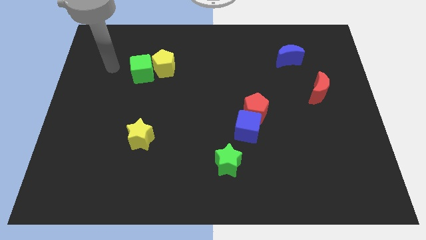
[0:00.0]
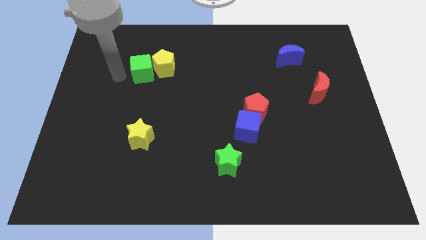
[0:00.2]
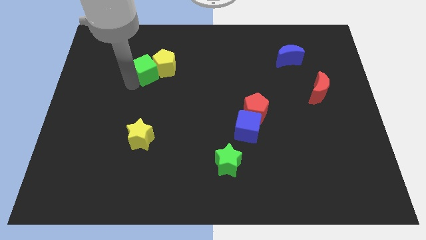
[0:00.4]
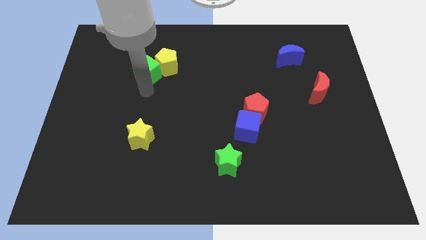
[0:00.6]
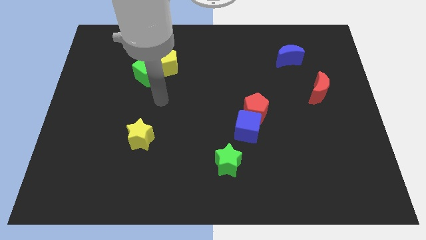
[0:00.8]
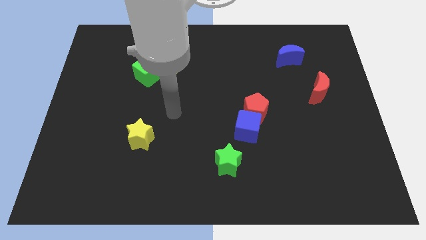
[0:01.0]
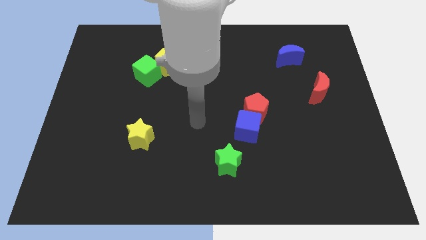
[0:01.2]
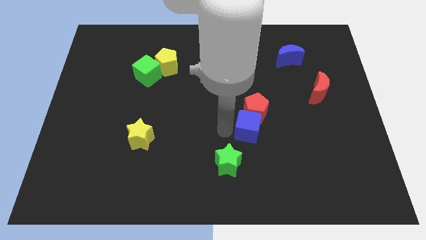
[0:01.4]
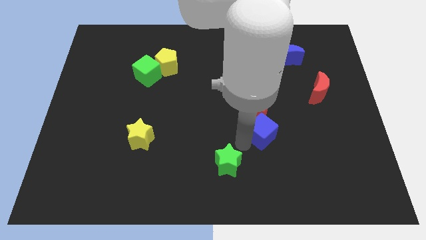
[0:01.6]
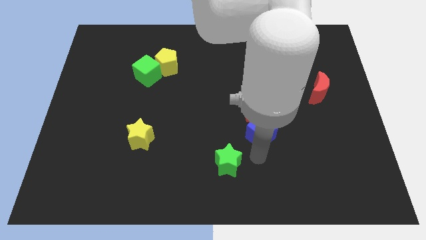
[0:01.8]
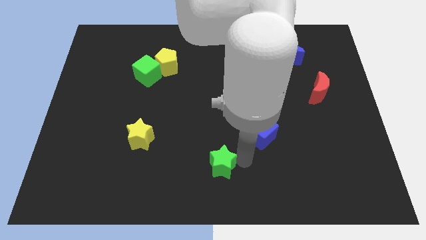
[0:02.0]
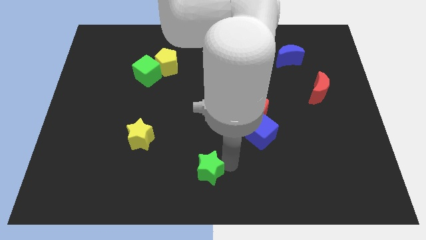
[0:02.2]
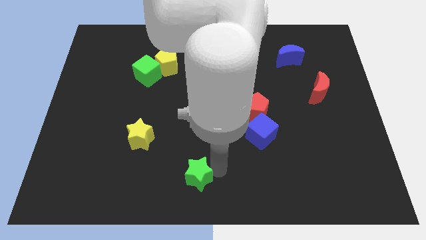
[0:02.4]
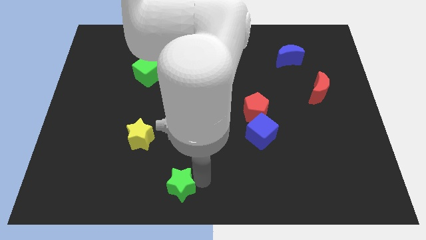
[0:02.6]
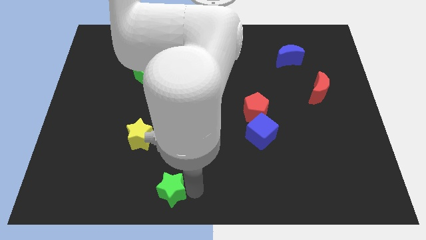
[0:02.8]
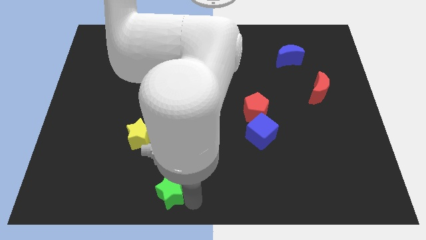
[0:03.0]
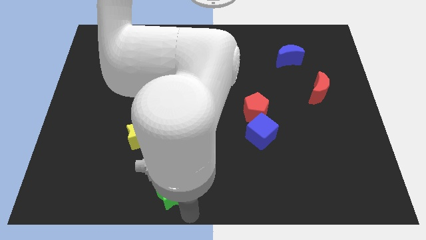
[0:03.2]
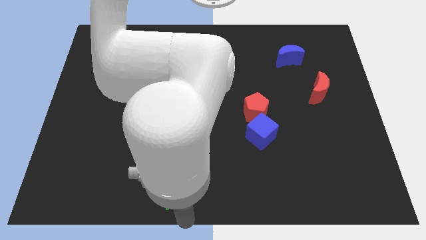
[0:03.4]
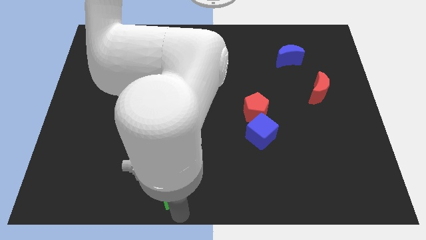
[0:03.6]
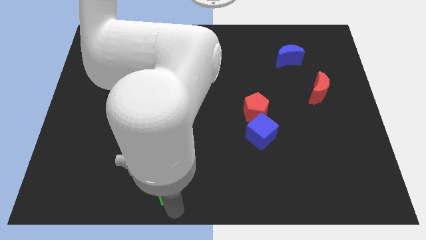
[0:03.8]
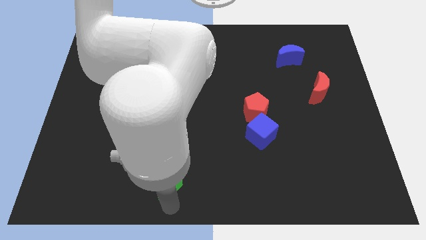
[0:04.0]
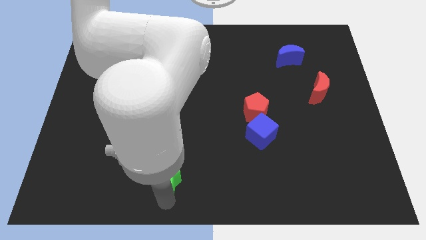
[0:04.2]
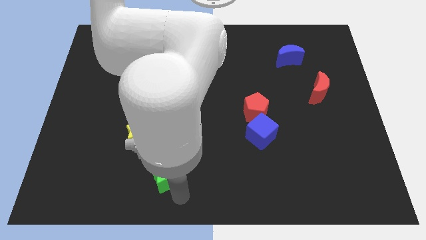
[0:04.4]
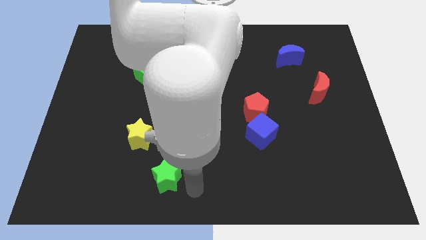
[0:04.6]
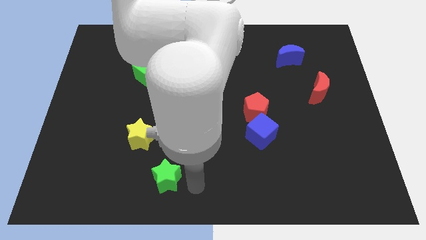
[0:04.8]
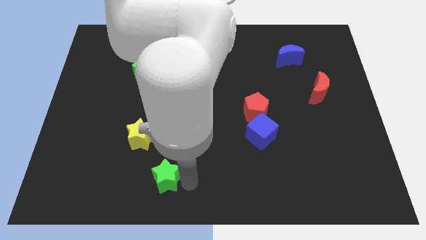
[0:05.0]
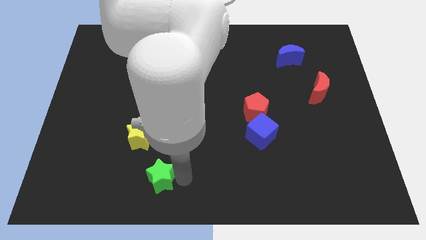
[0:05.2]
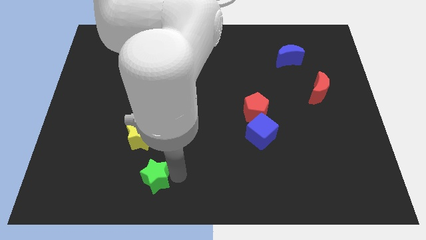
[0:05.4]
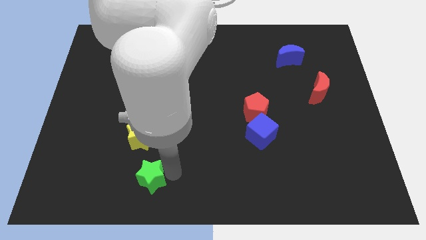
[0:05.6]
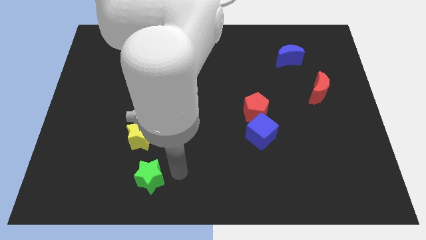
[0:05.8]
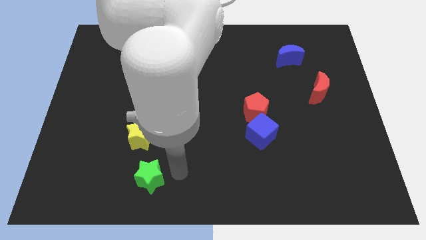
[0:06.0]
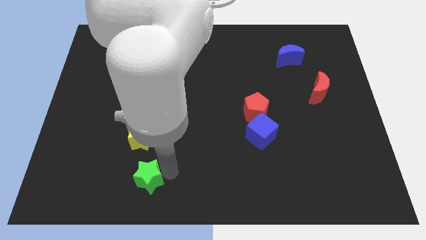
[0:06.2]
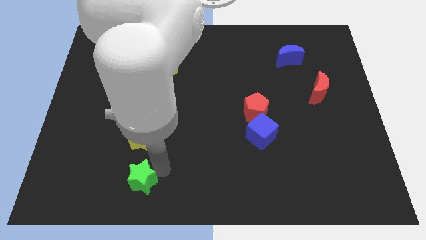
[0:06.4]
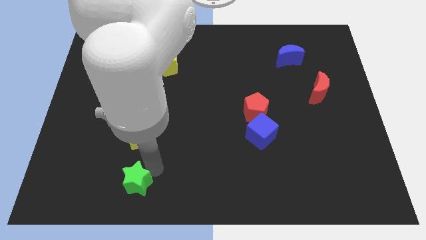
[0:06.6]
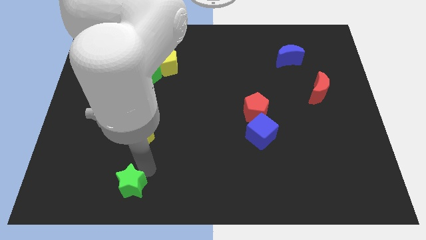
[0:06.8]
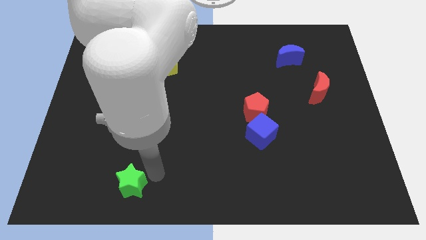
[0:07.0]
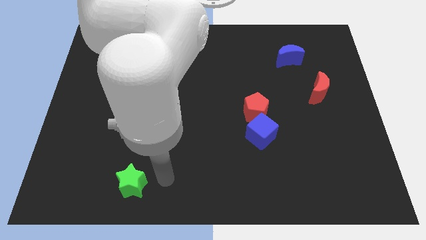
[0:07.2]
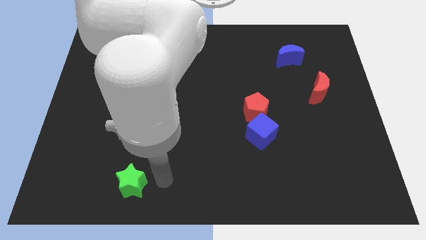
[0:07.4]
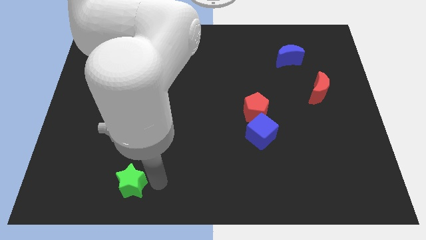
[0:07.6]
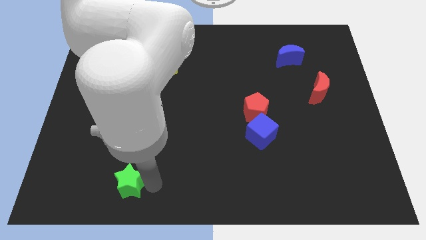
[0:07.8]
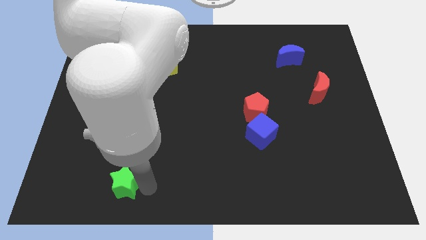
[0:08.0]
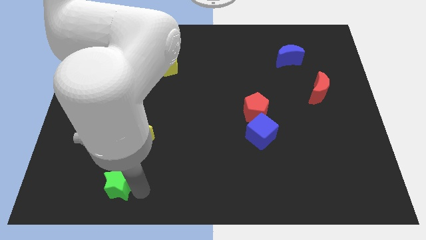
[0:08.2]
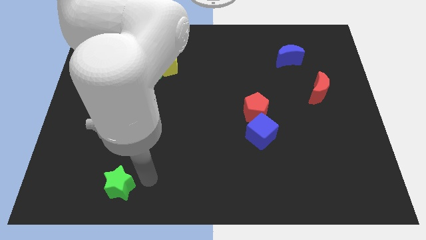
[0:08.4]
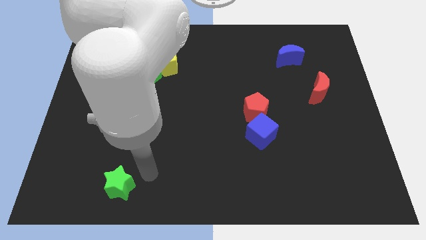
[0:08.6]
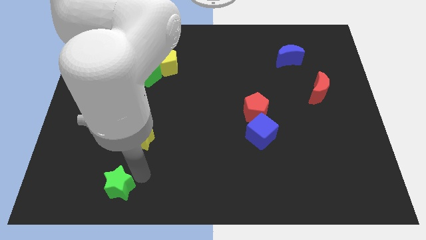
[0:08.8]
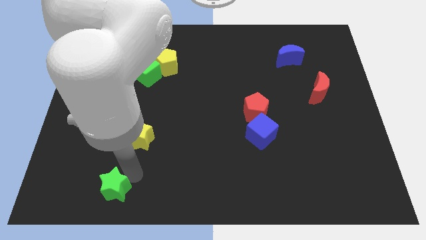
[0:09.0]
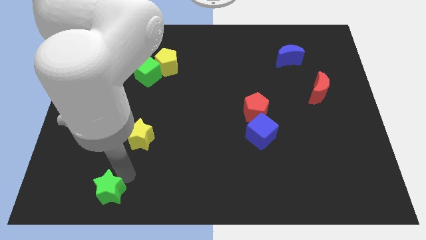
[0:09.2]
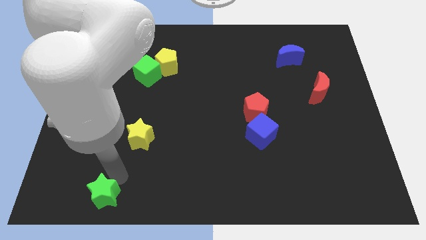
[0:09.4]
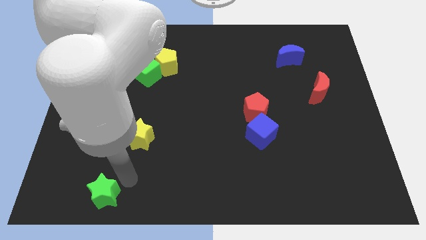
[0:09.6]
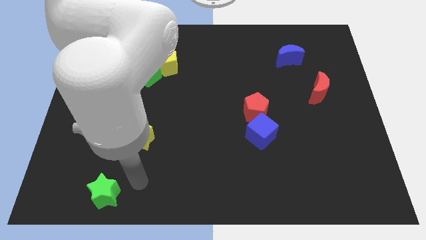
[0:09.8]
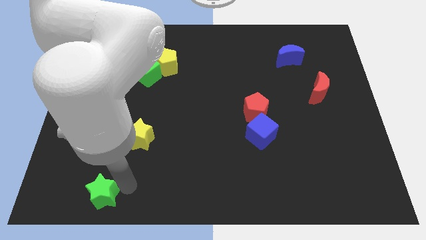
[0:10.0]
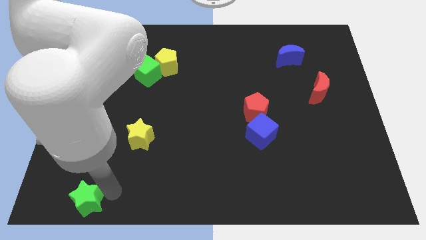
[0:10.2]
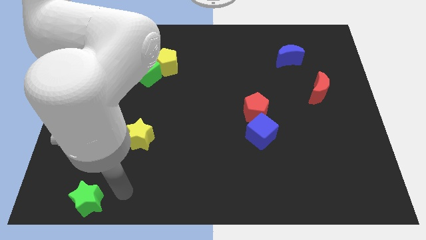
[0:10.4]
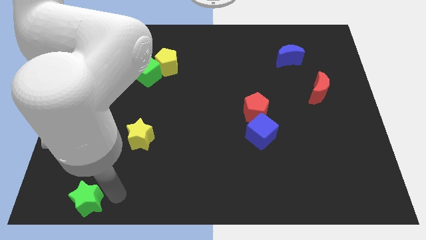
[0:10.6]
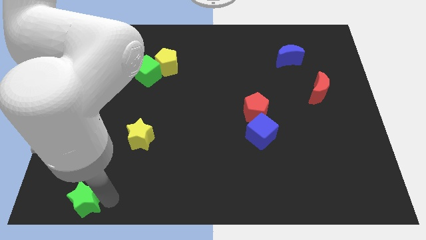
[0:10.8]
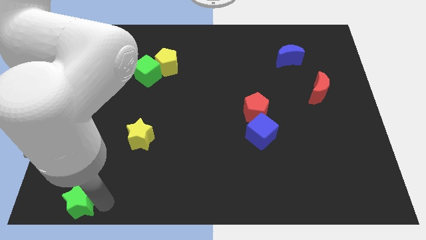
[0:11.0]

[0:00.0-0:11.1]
slide the green star to the lower left corner
